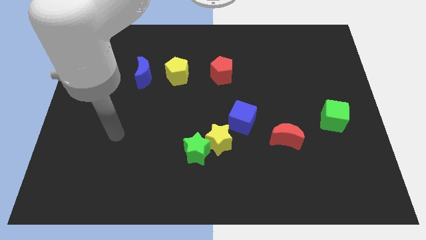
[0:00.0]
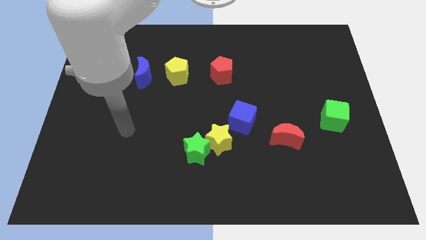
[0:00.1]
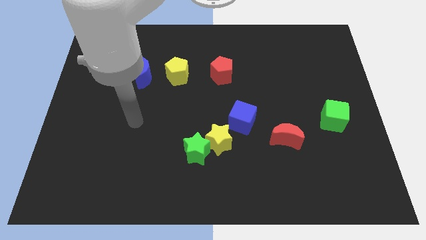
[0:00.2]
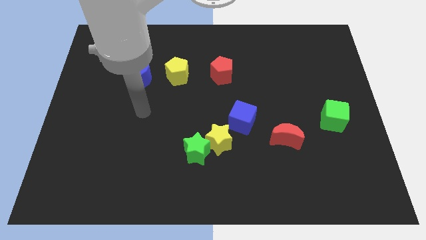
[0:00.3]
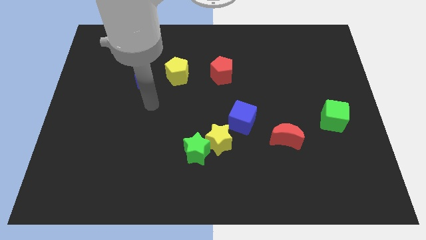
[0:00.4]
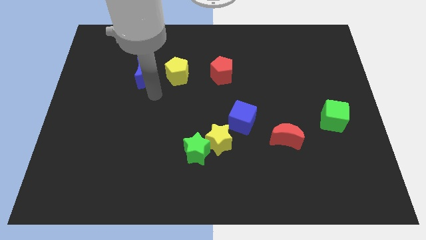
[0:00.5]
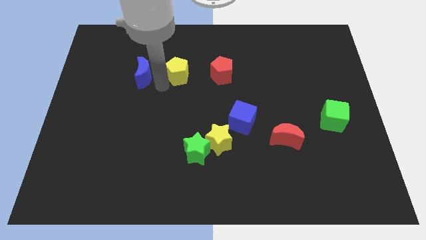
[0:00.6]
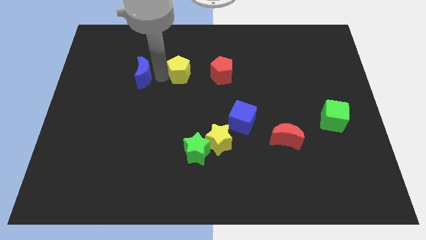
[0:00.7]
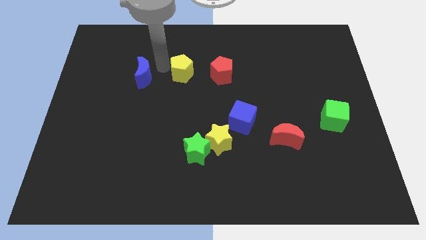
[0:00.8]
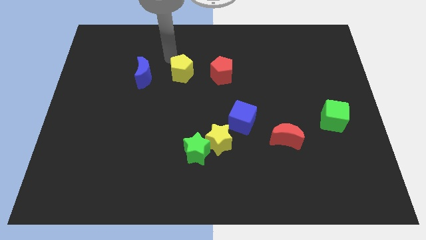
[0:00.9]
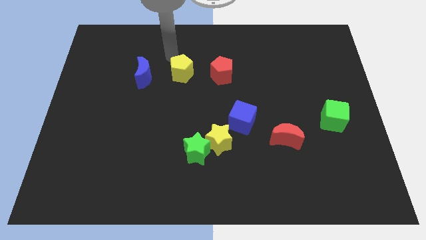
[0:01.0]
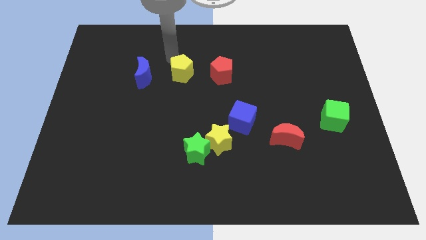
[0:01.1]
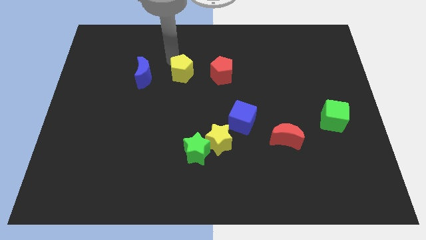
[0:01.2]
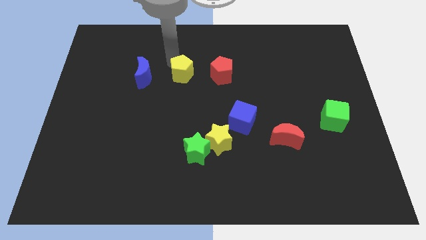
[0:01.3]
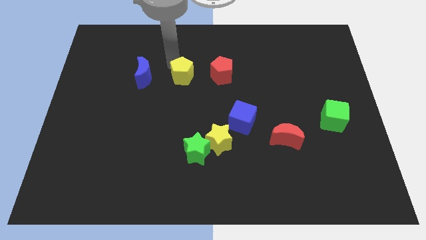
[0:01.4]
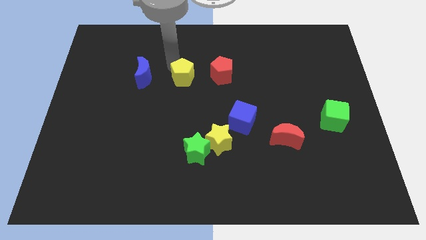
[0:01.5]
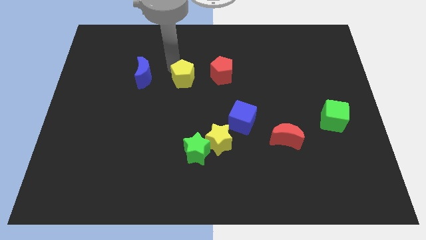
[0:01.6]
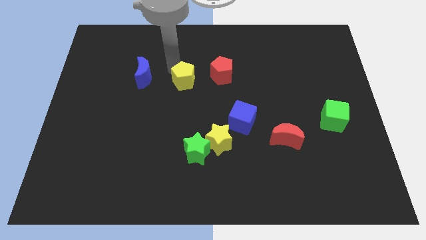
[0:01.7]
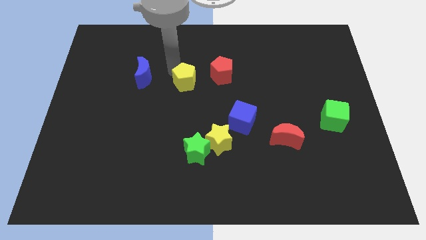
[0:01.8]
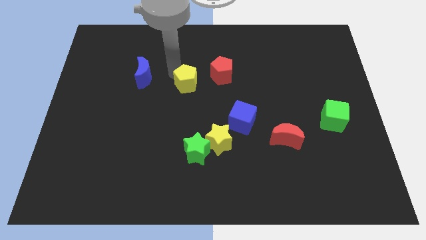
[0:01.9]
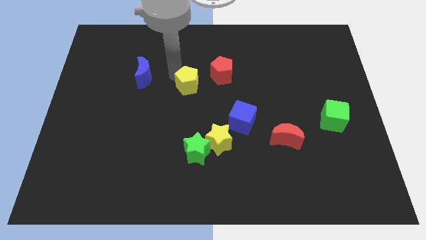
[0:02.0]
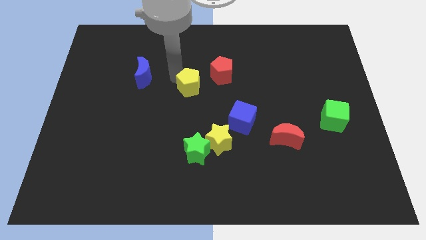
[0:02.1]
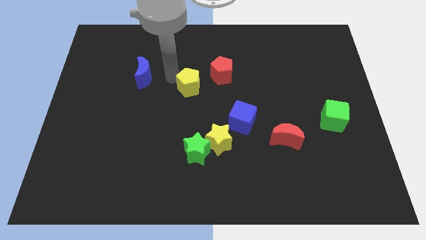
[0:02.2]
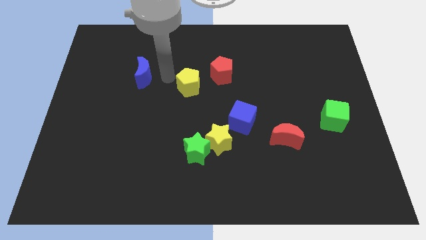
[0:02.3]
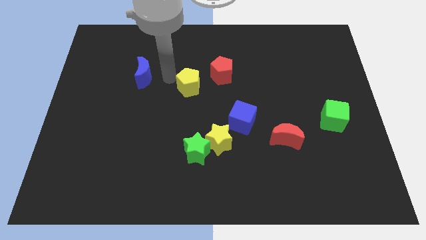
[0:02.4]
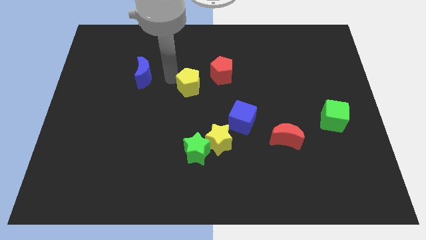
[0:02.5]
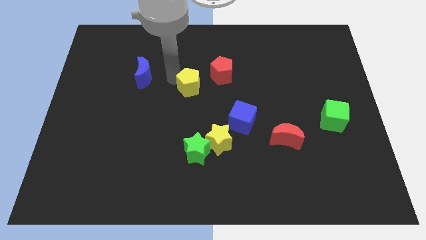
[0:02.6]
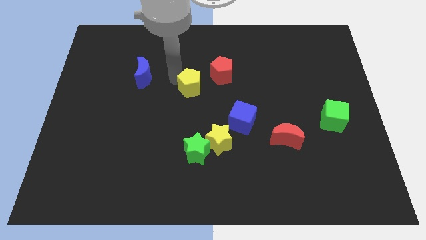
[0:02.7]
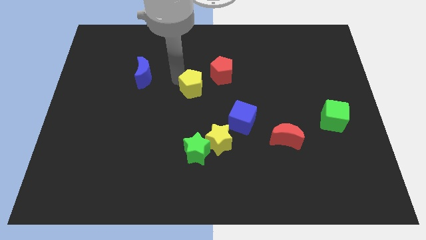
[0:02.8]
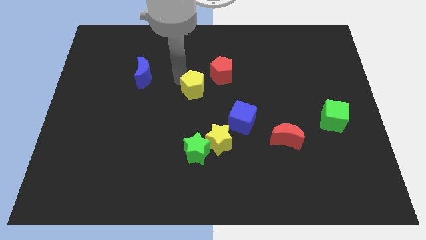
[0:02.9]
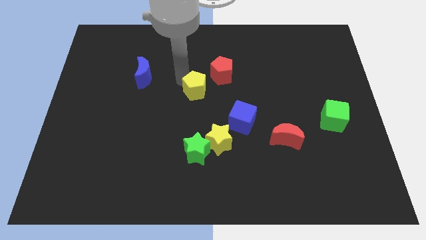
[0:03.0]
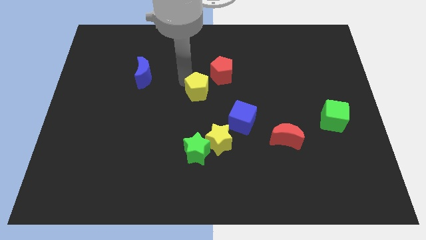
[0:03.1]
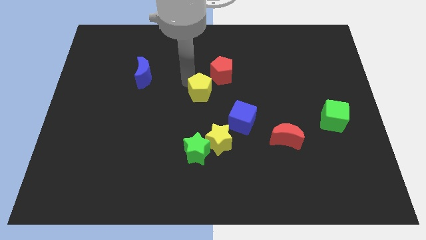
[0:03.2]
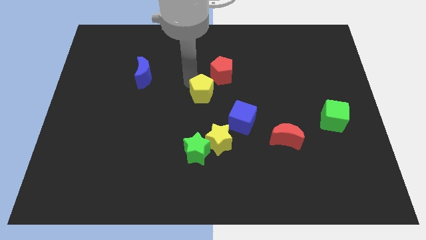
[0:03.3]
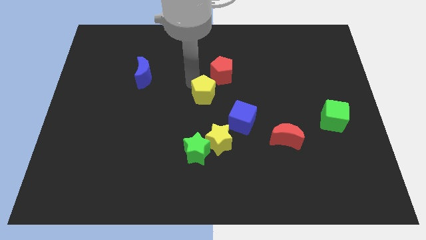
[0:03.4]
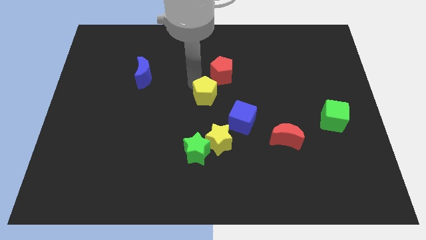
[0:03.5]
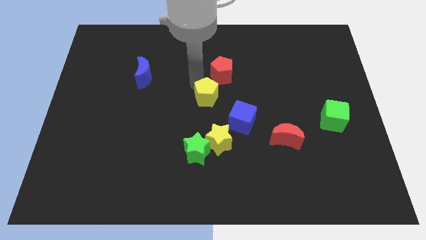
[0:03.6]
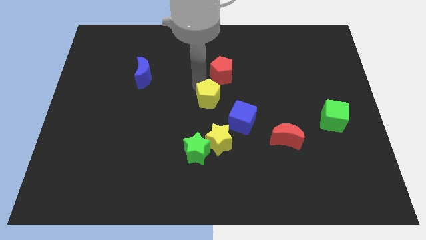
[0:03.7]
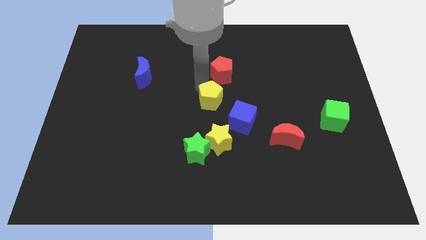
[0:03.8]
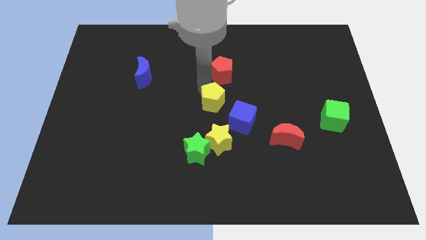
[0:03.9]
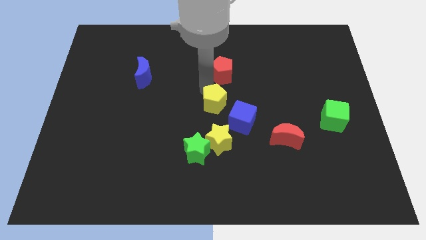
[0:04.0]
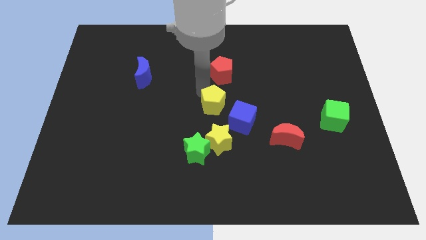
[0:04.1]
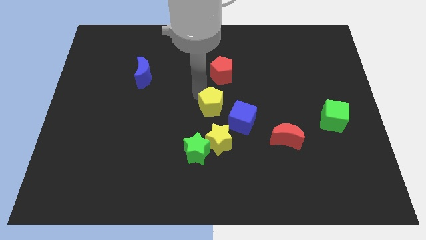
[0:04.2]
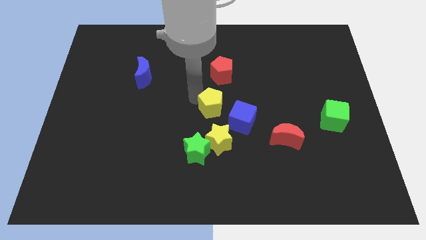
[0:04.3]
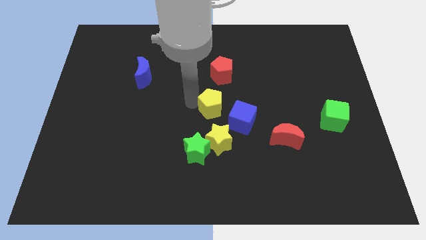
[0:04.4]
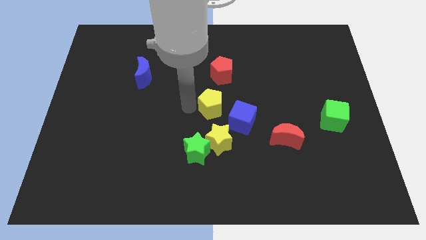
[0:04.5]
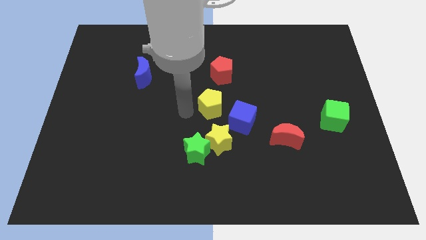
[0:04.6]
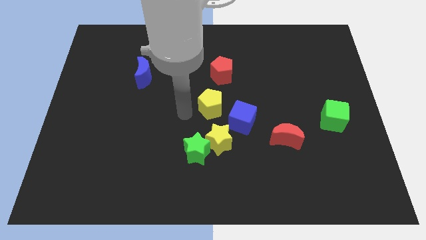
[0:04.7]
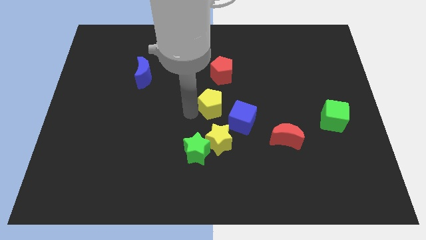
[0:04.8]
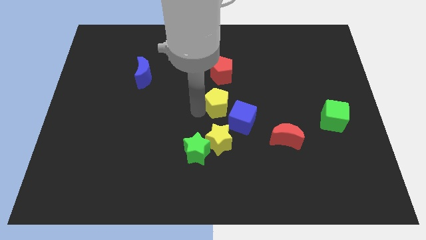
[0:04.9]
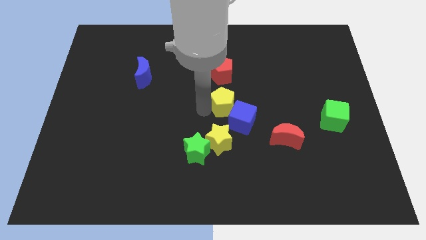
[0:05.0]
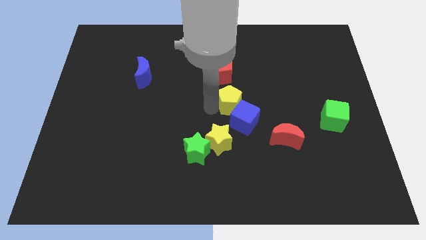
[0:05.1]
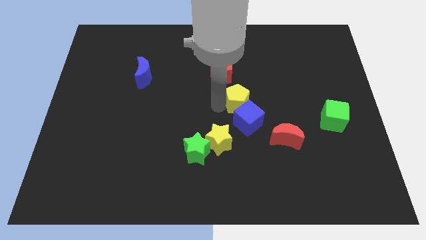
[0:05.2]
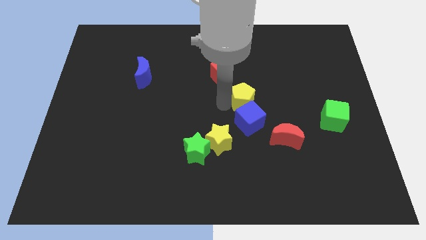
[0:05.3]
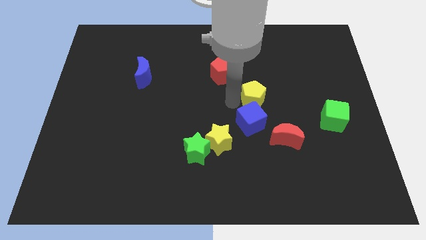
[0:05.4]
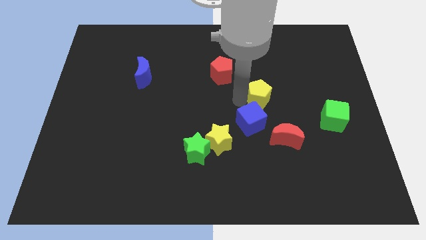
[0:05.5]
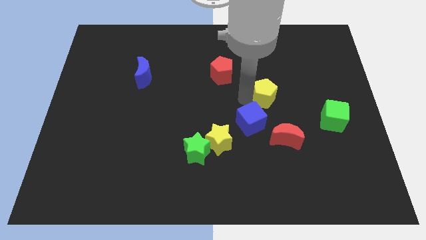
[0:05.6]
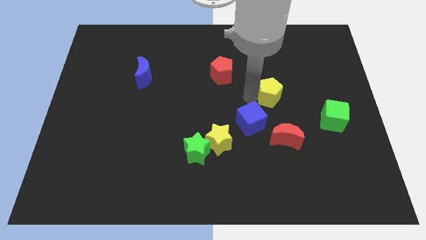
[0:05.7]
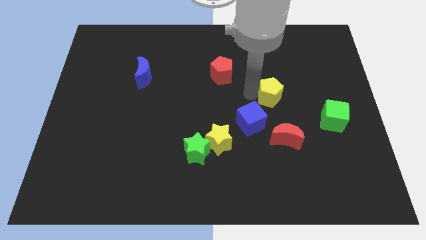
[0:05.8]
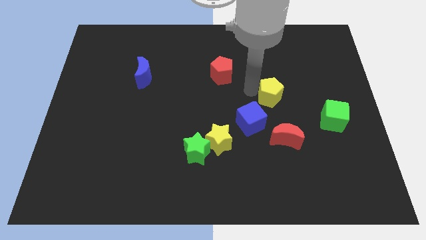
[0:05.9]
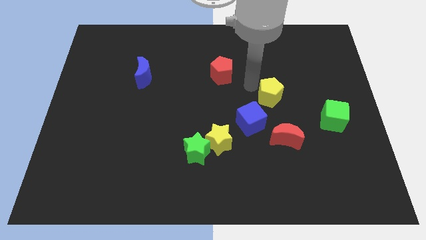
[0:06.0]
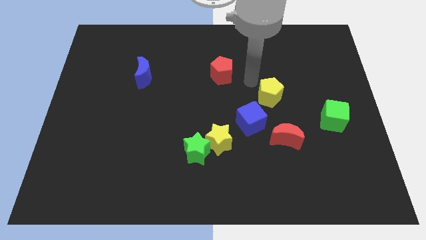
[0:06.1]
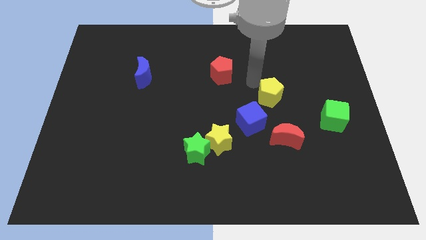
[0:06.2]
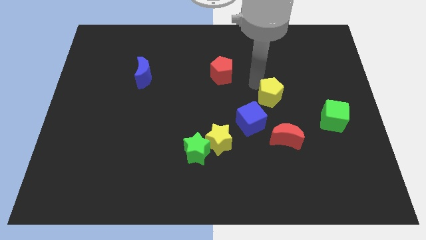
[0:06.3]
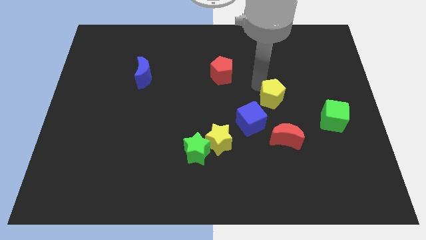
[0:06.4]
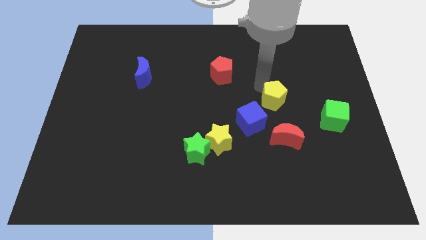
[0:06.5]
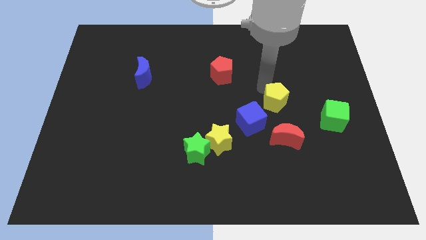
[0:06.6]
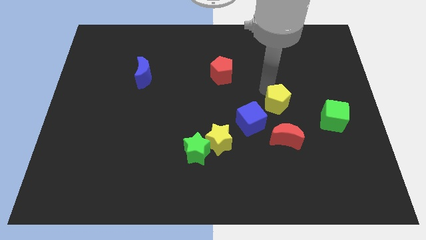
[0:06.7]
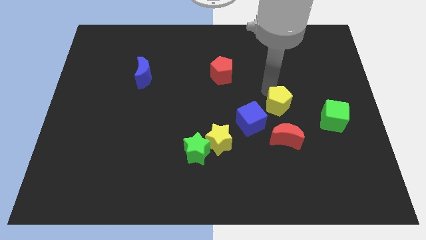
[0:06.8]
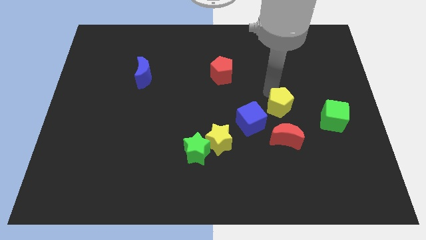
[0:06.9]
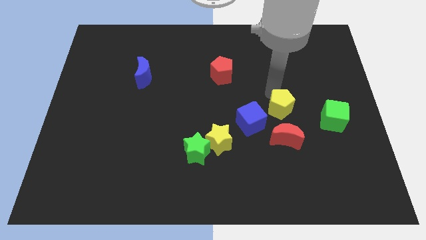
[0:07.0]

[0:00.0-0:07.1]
slide the yellow pentagon diagonally down and right

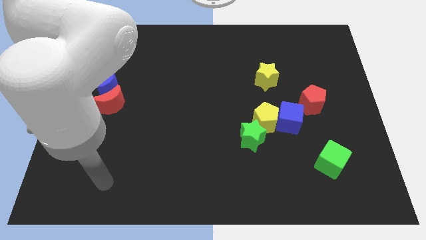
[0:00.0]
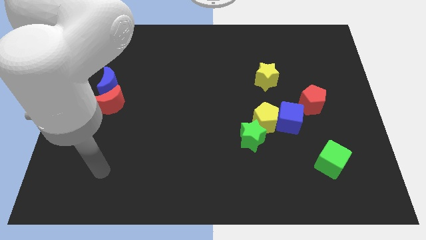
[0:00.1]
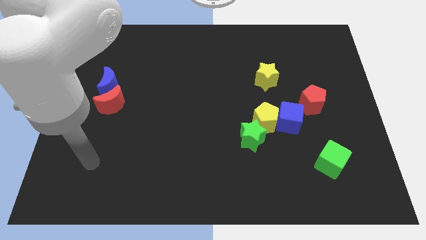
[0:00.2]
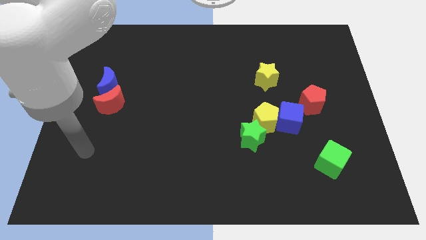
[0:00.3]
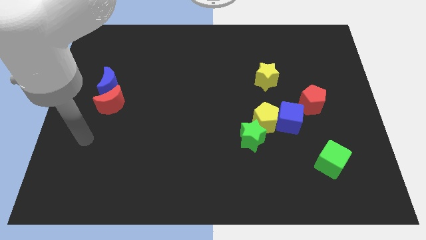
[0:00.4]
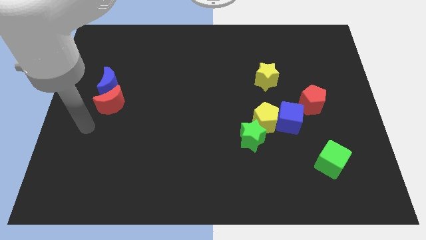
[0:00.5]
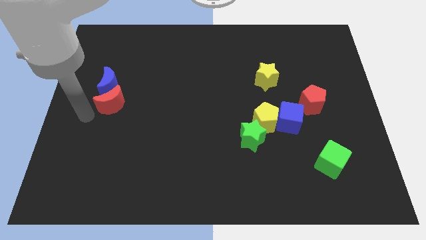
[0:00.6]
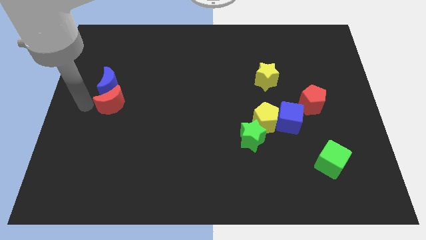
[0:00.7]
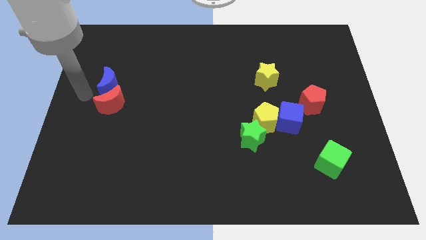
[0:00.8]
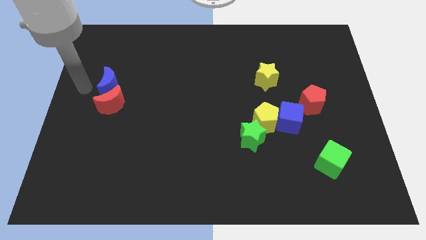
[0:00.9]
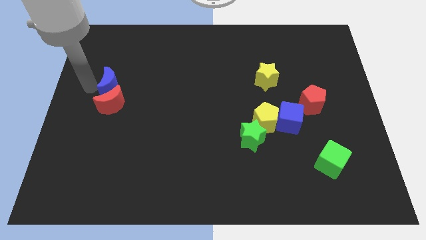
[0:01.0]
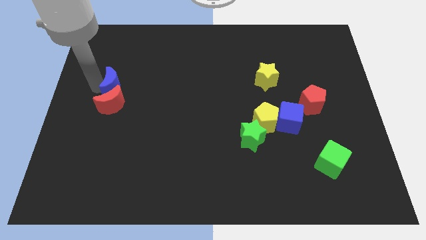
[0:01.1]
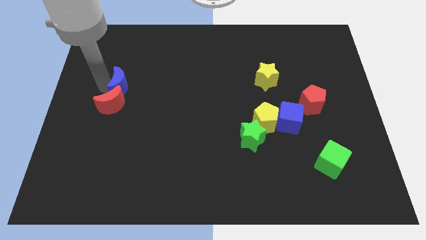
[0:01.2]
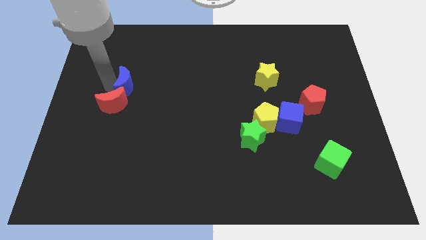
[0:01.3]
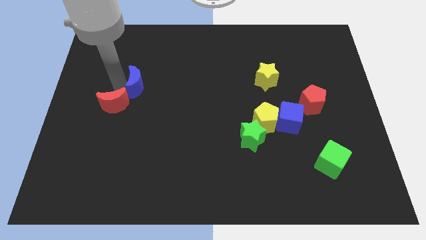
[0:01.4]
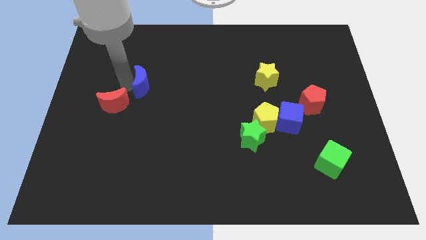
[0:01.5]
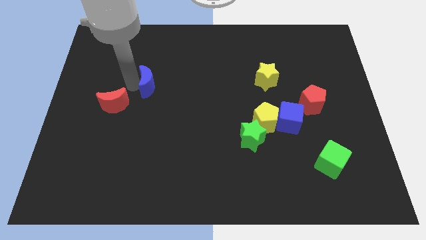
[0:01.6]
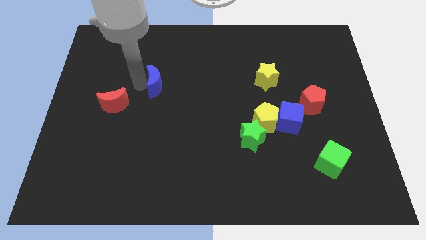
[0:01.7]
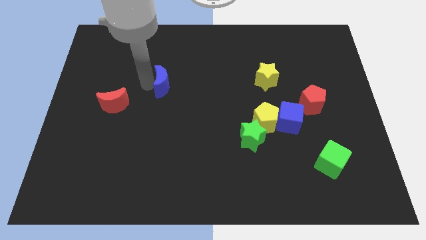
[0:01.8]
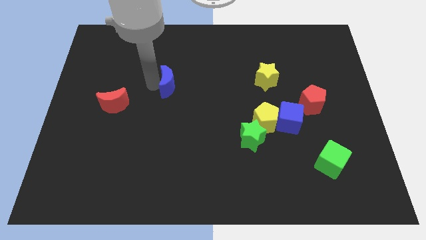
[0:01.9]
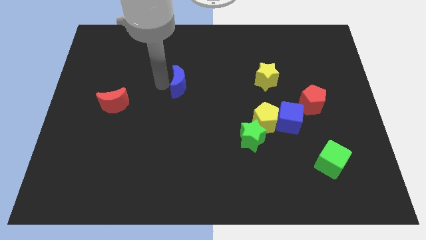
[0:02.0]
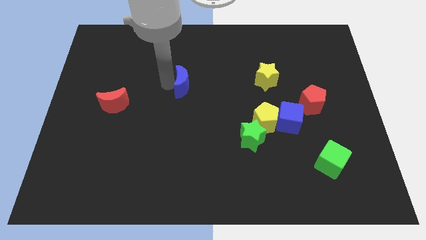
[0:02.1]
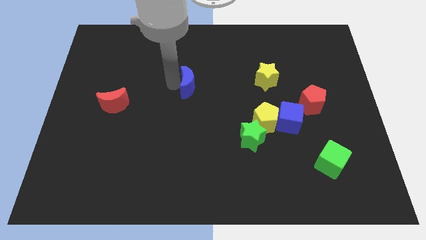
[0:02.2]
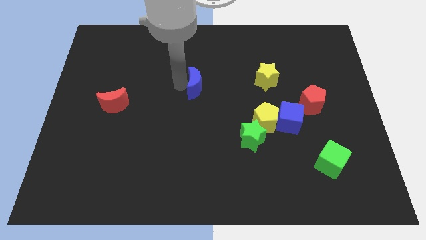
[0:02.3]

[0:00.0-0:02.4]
move the blue moon right
